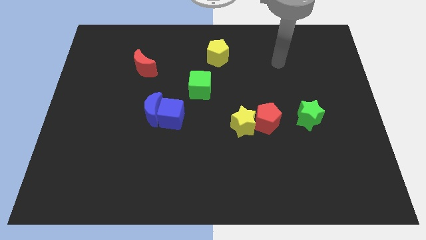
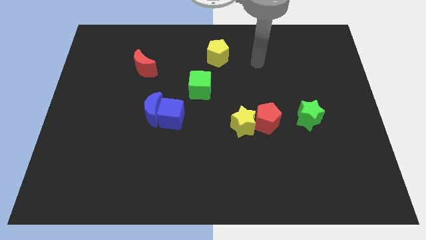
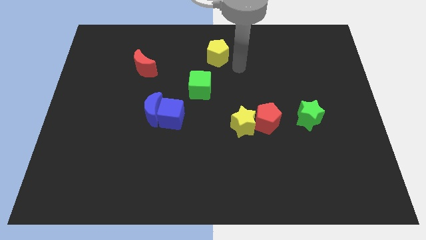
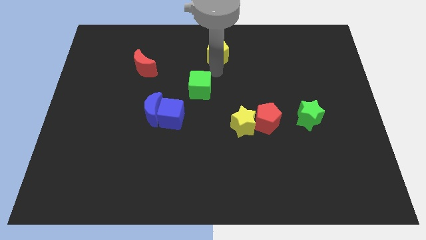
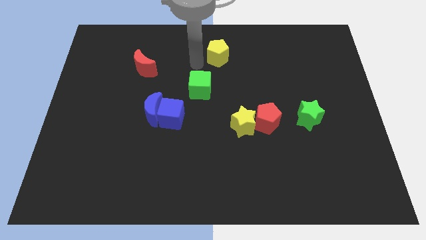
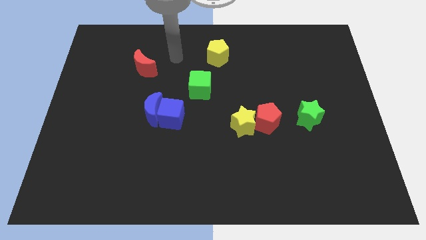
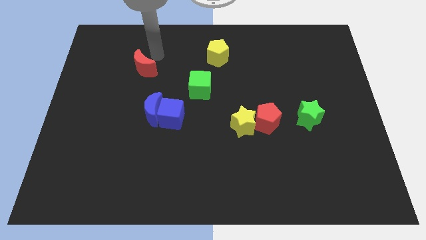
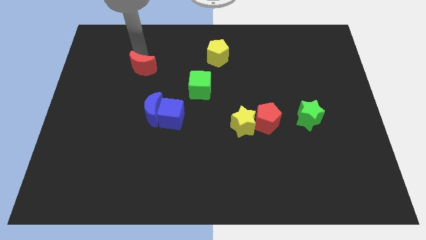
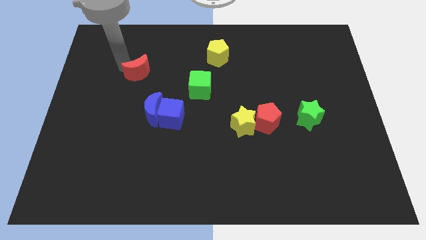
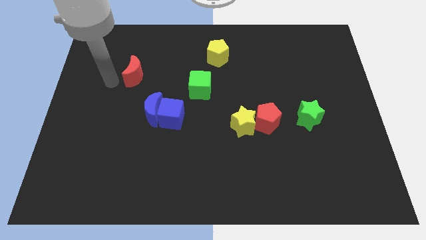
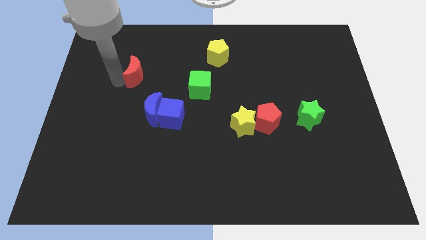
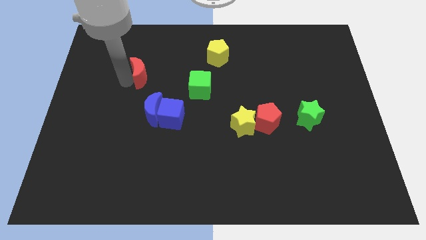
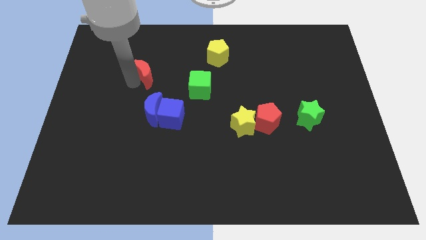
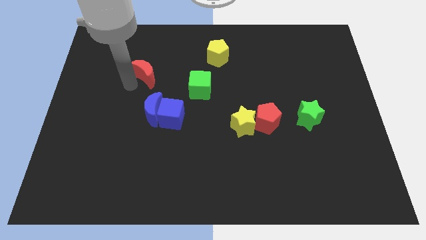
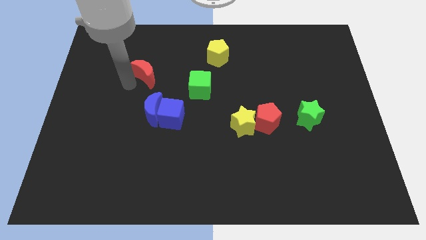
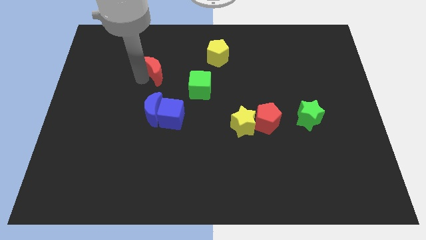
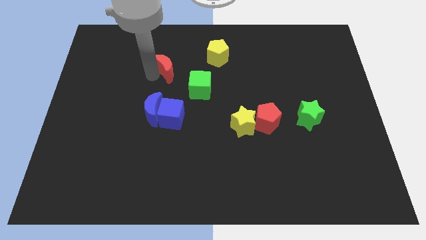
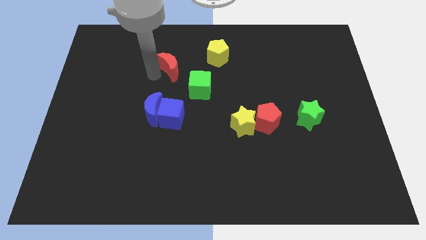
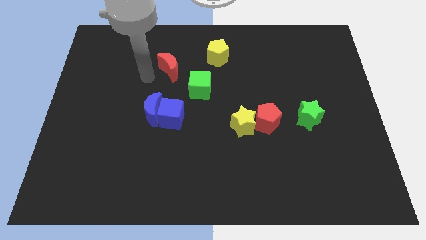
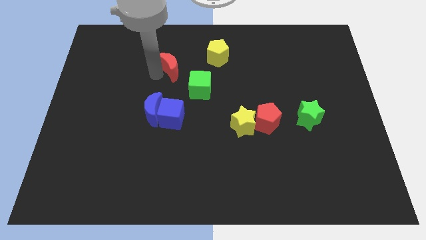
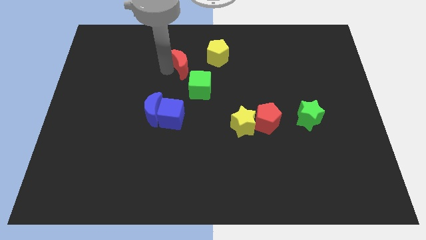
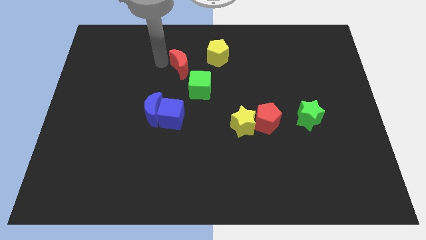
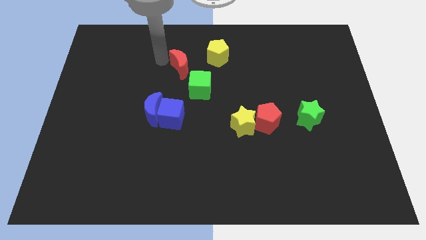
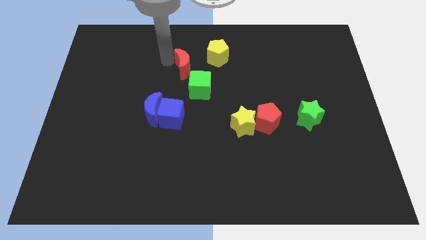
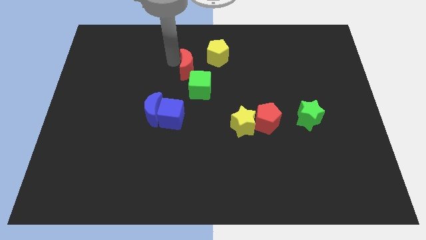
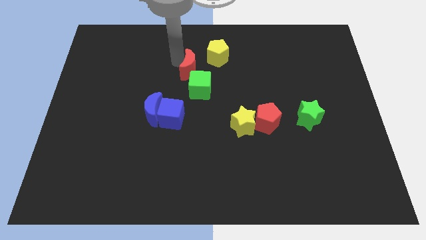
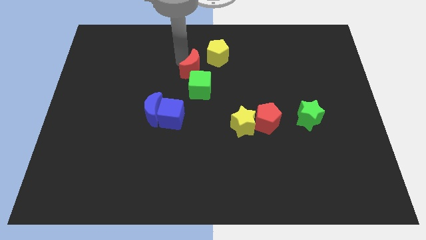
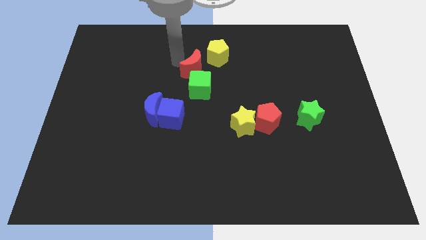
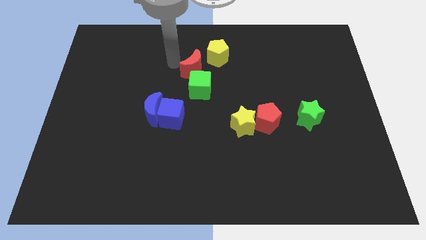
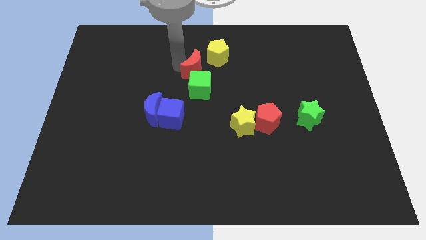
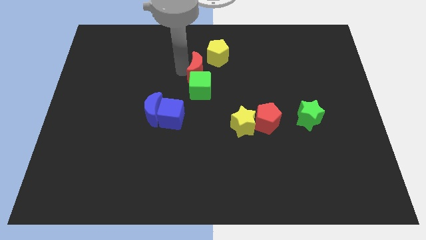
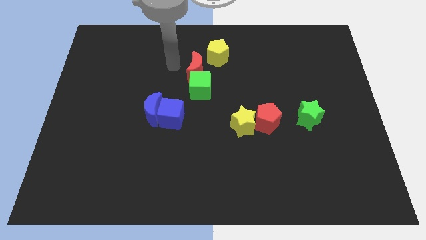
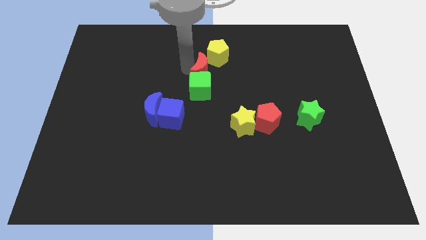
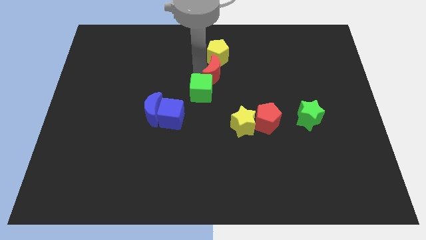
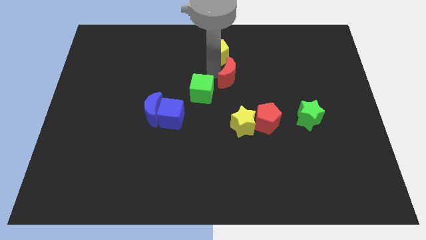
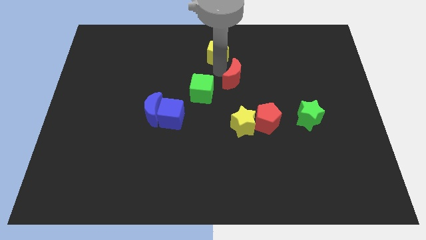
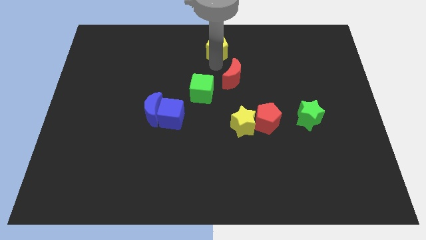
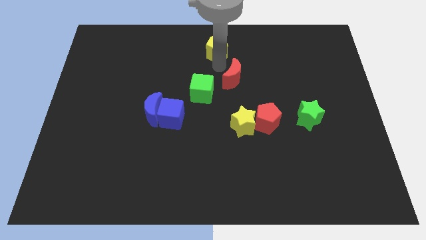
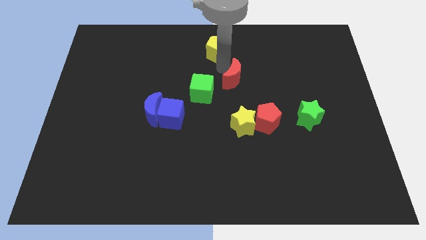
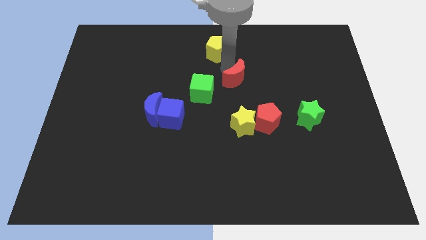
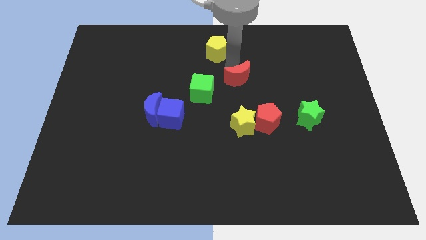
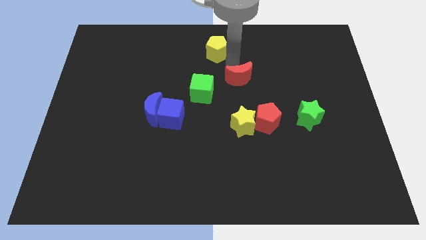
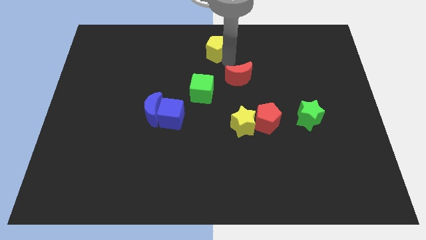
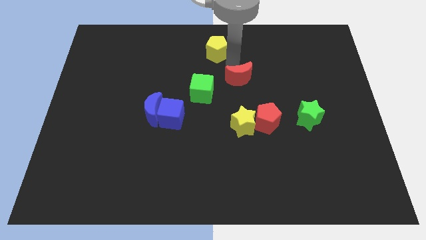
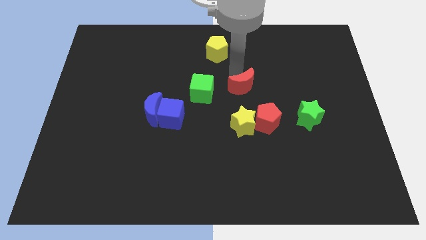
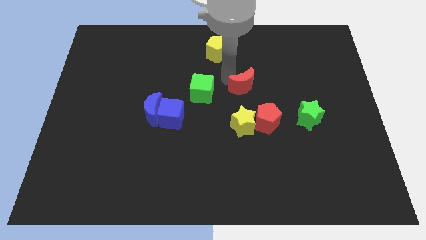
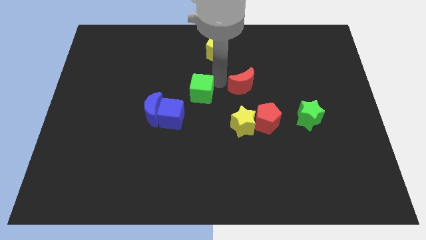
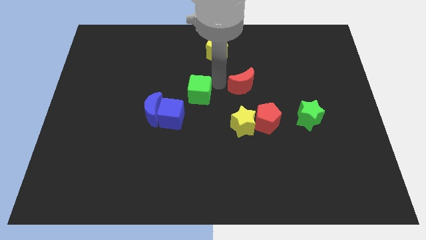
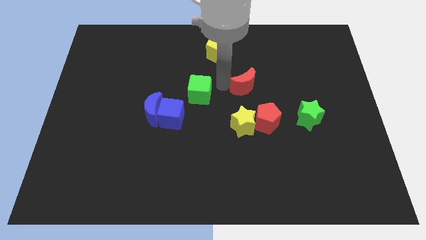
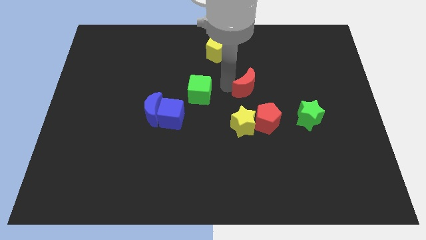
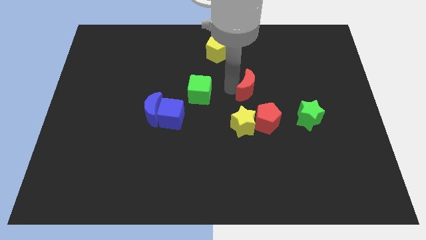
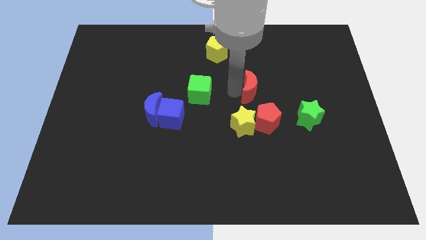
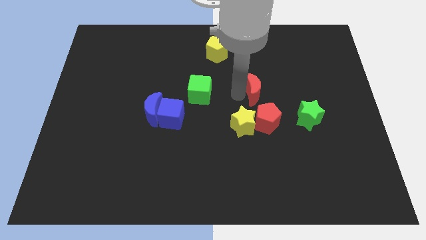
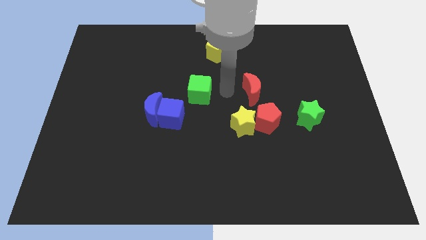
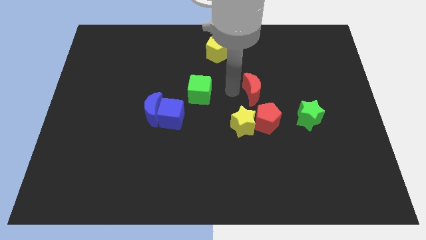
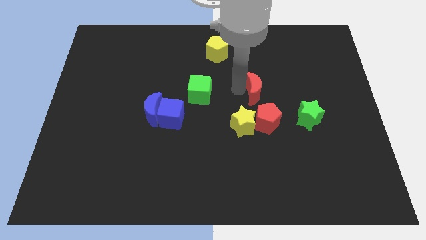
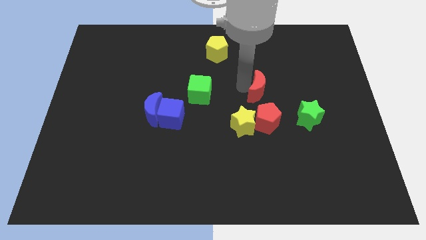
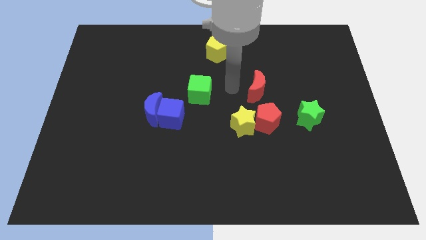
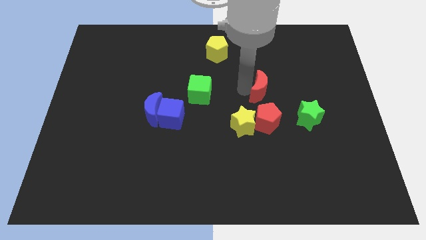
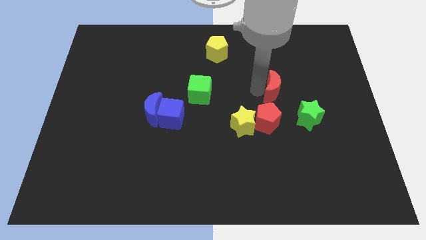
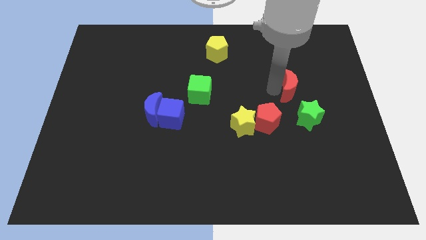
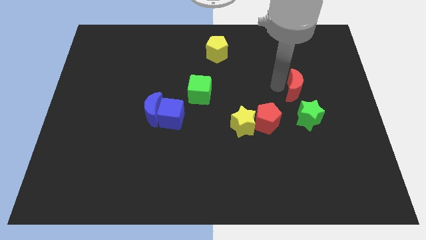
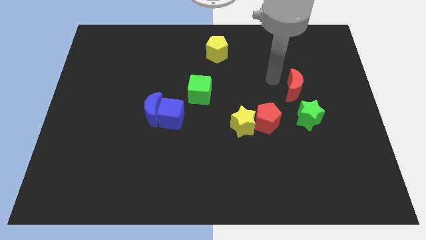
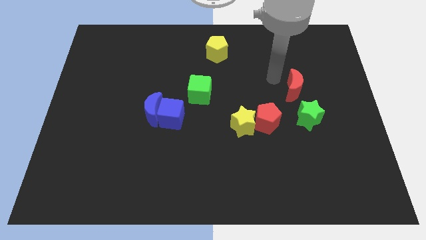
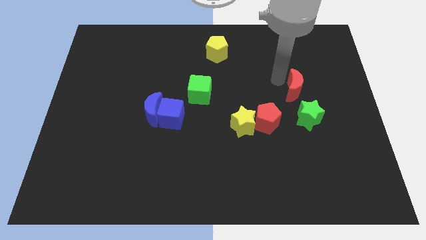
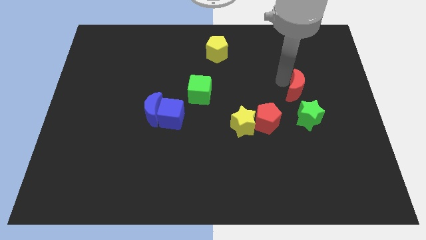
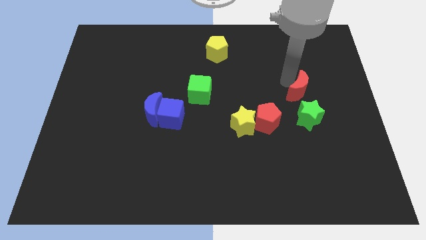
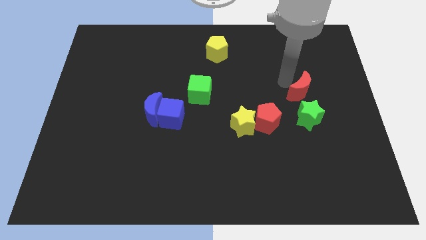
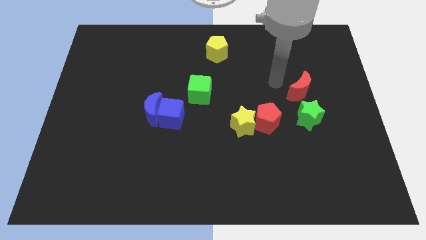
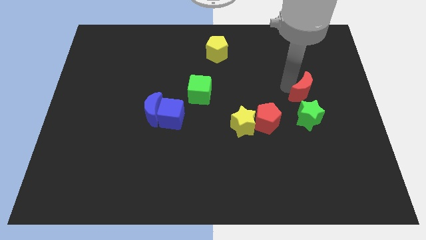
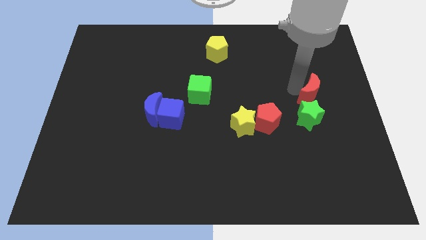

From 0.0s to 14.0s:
push the red moon to the top right side of the green star
